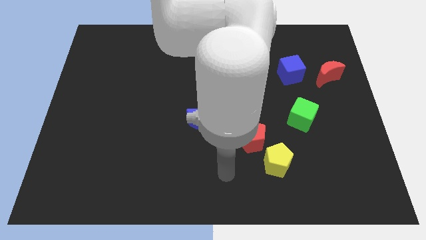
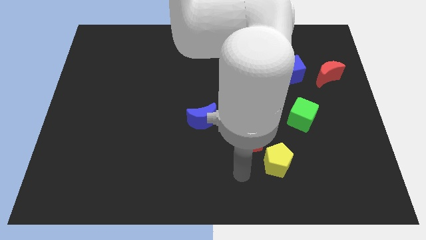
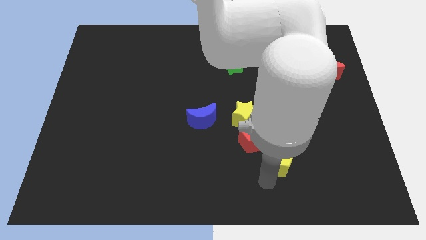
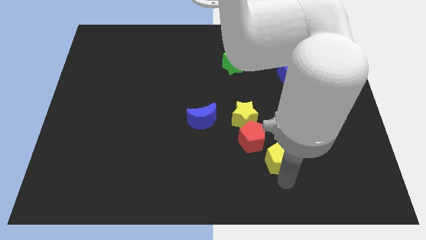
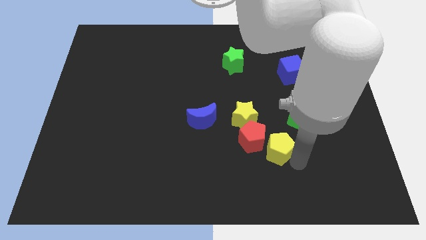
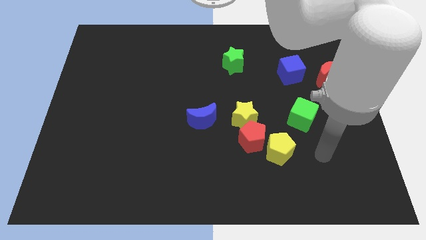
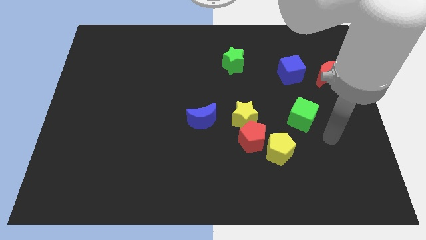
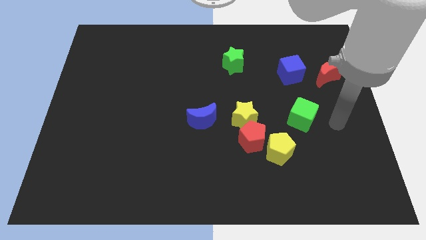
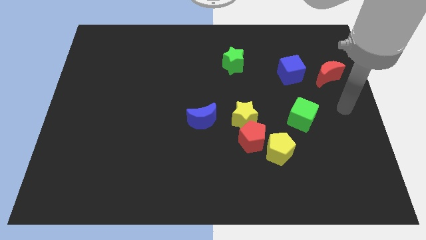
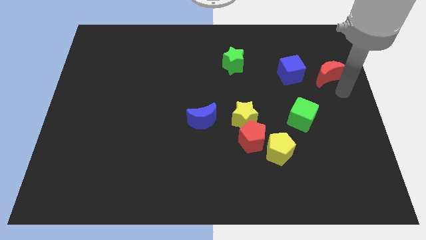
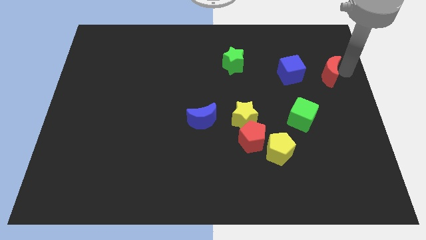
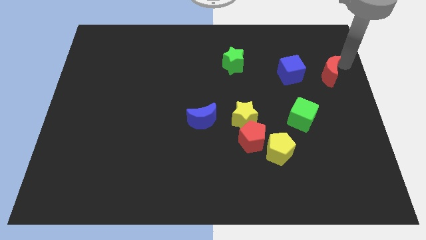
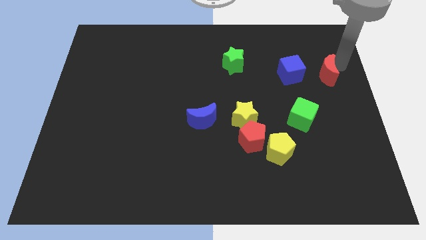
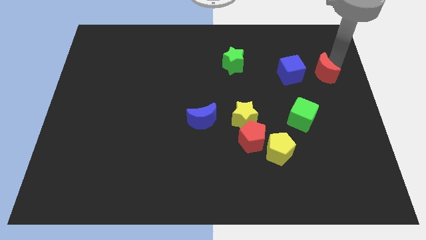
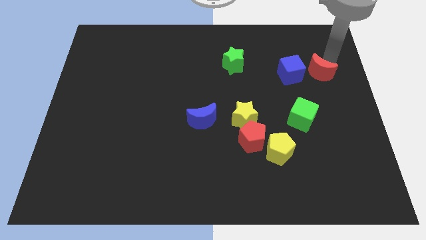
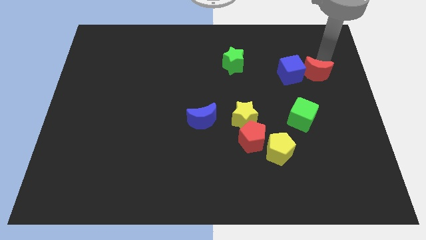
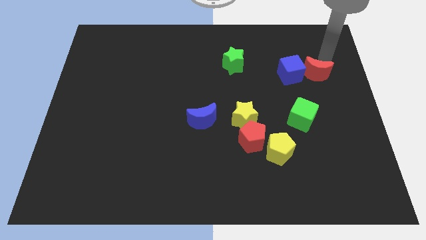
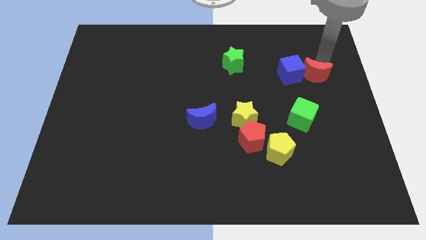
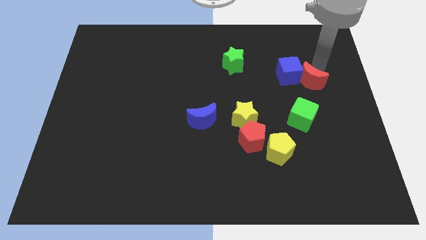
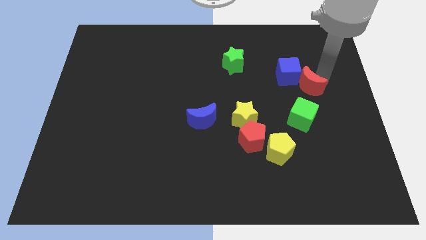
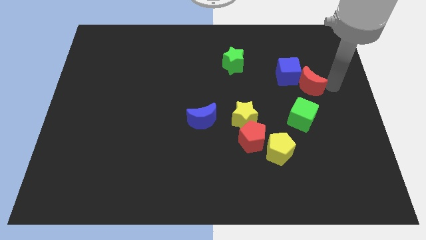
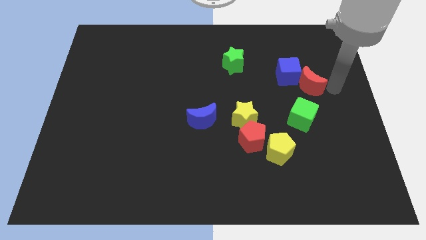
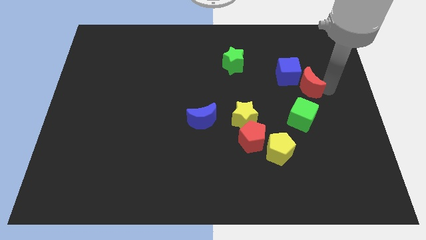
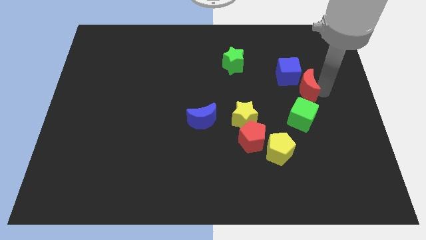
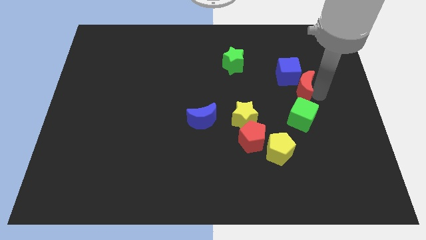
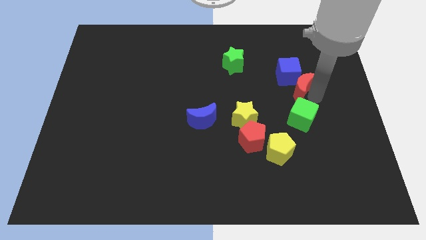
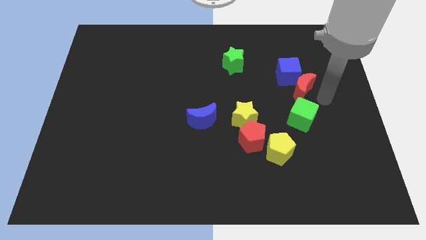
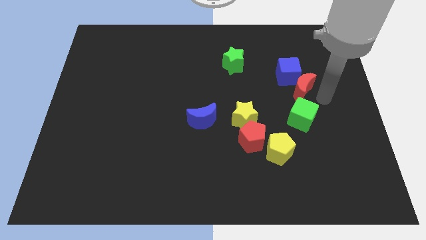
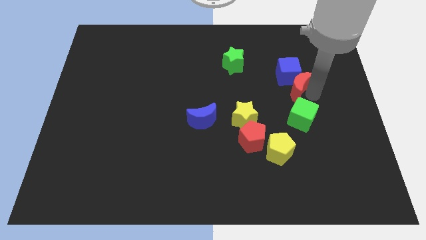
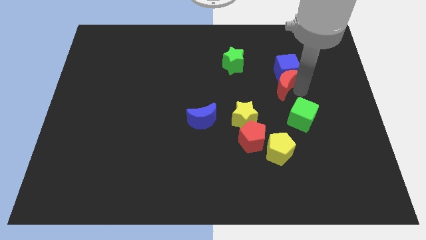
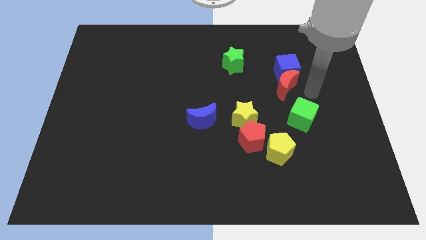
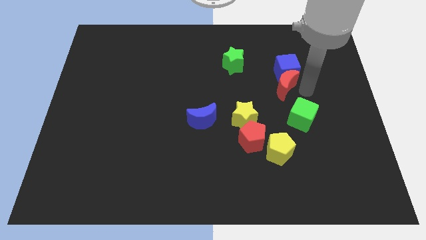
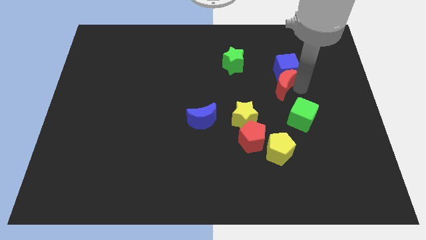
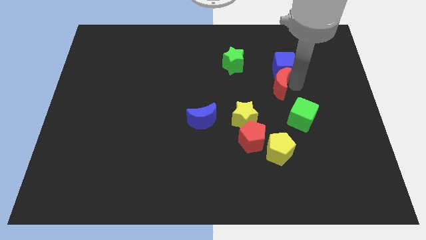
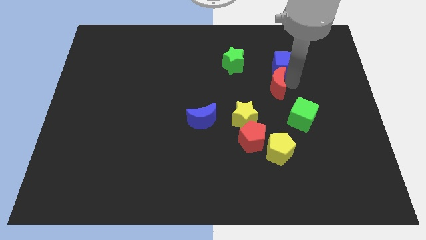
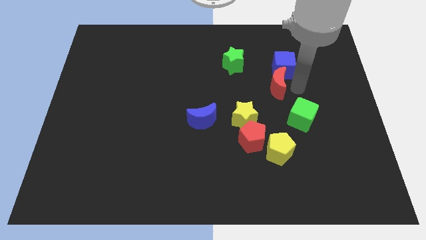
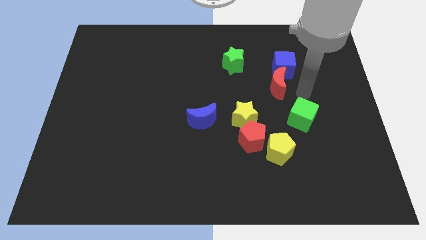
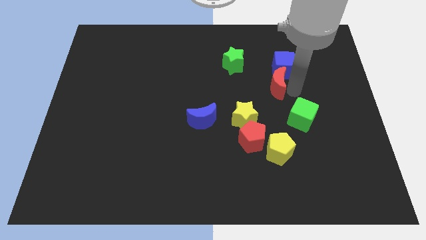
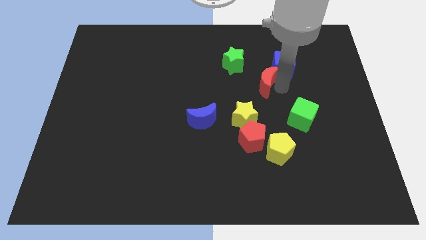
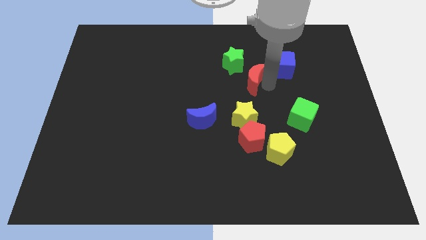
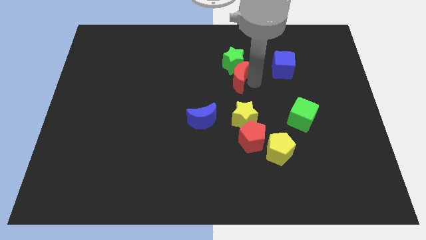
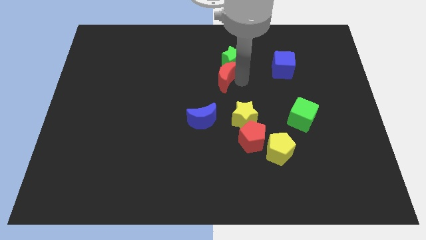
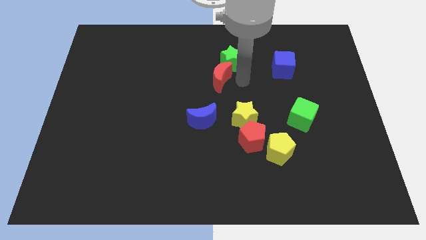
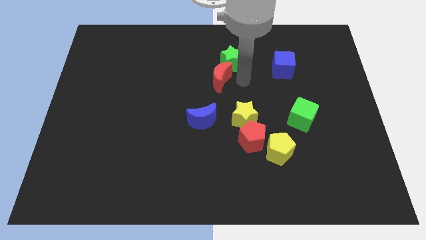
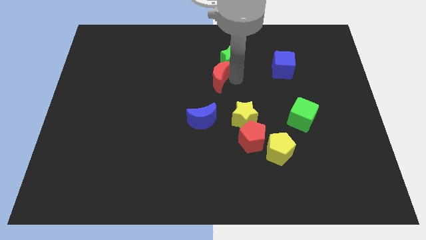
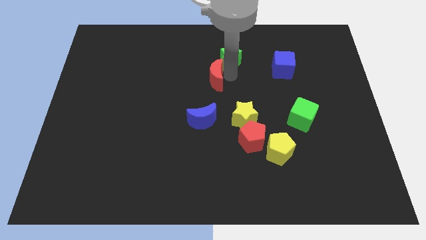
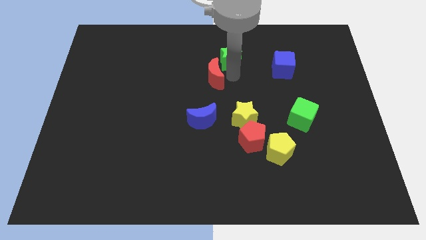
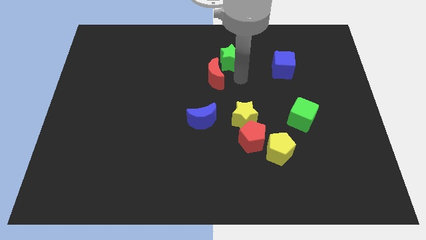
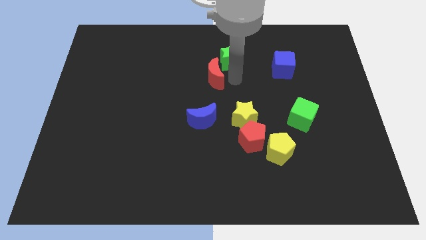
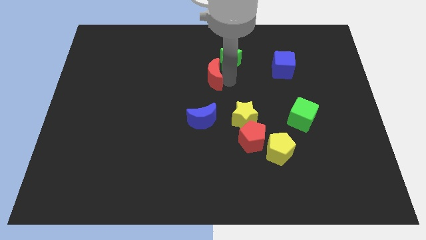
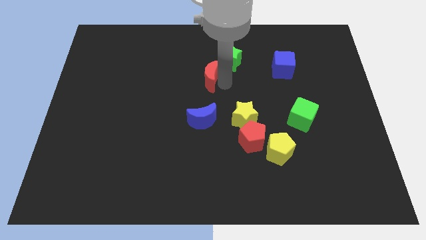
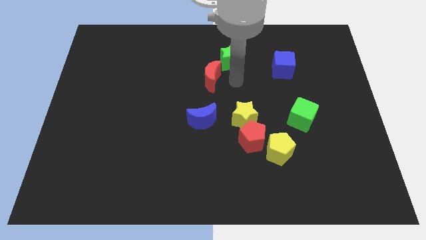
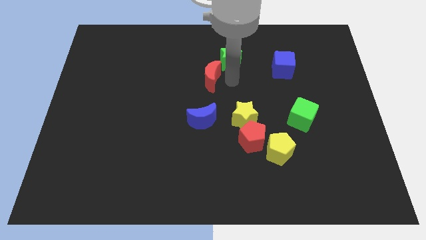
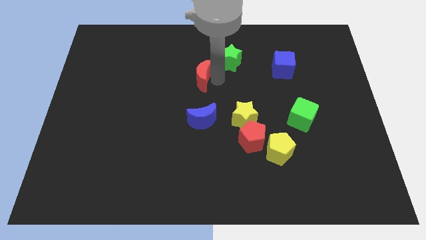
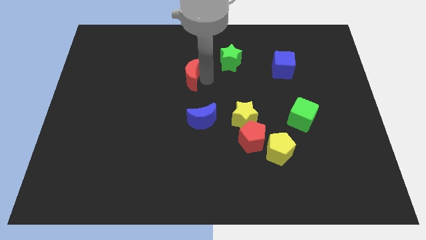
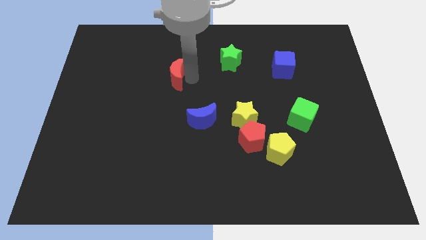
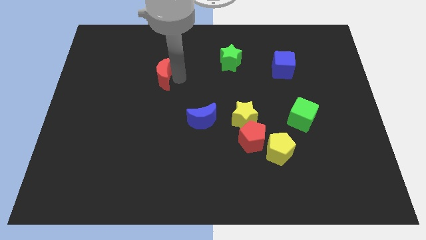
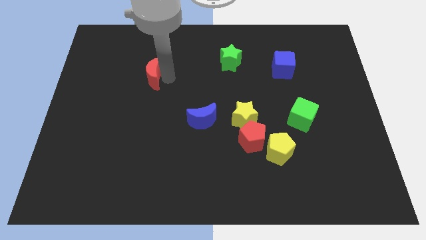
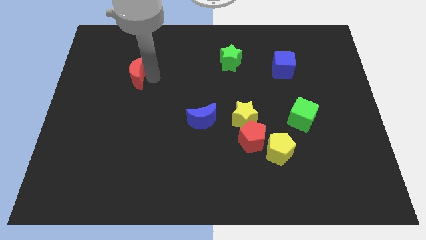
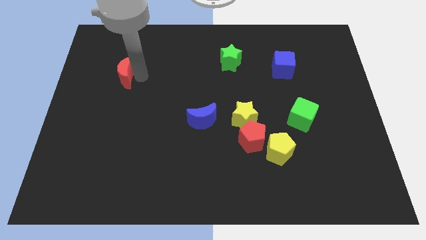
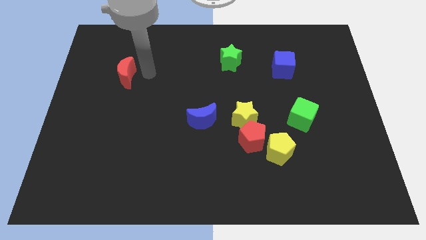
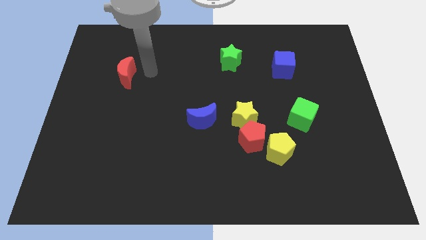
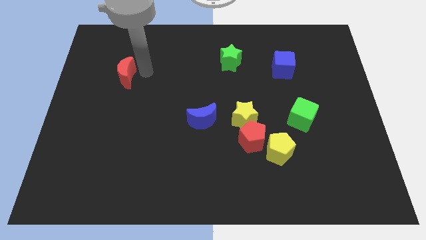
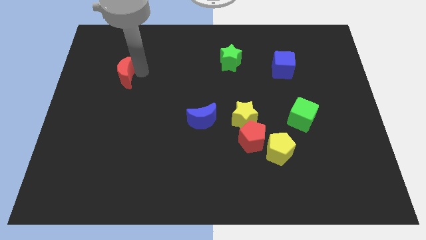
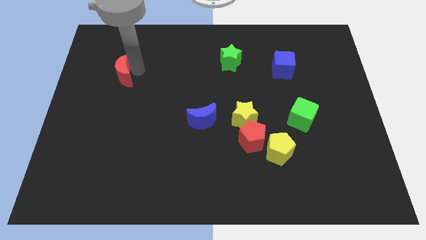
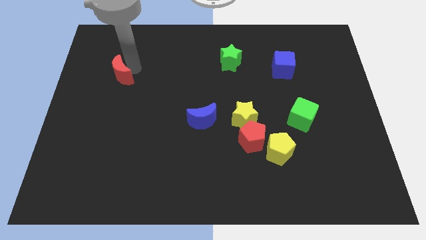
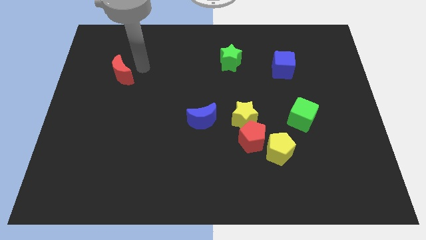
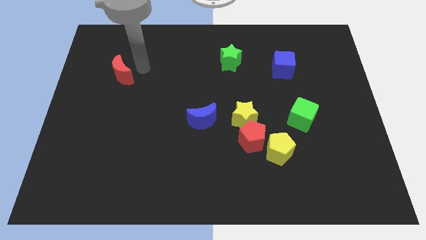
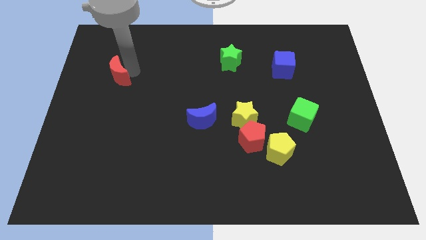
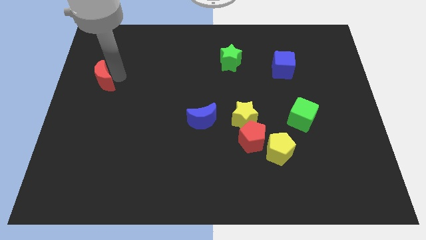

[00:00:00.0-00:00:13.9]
slide the red moon to the left side
